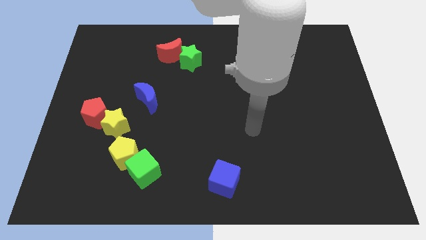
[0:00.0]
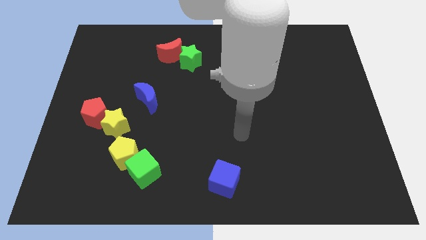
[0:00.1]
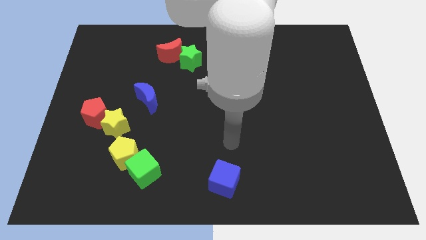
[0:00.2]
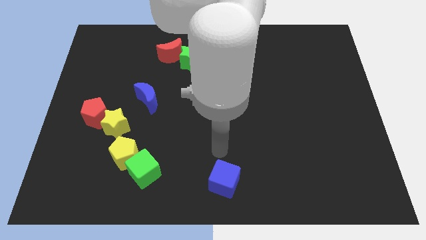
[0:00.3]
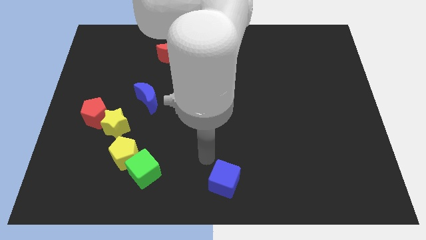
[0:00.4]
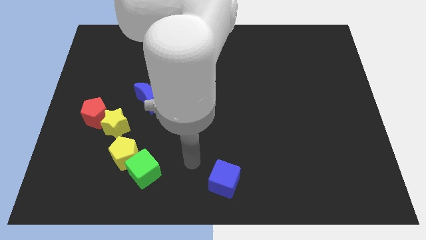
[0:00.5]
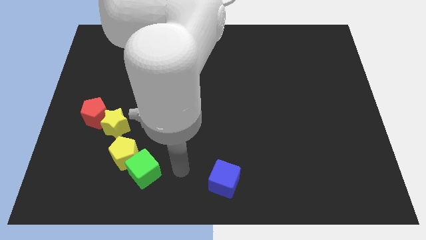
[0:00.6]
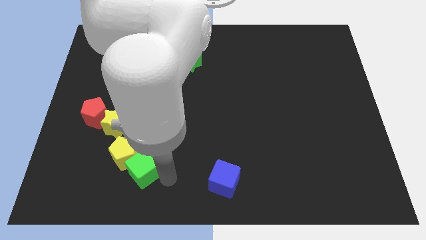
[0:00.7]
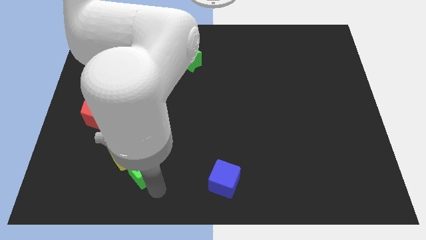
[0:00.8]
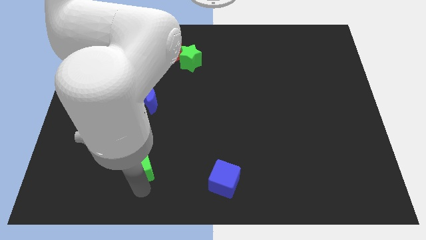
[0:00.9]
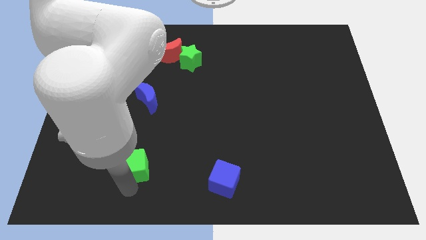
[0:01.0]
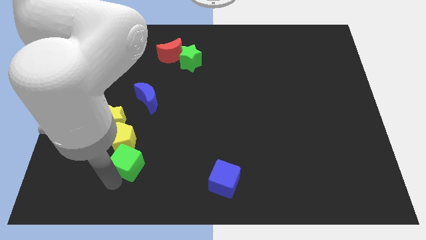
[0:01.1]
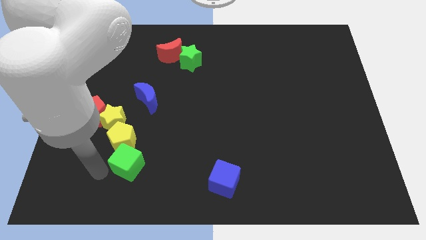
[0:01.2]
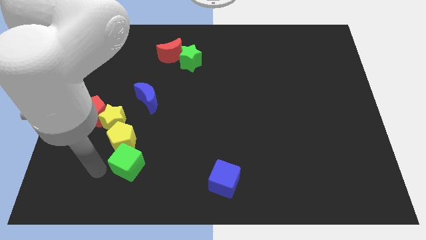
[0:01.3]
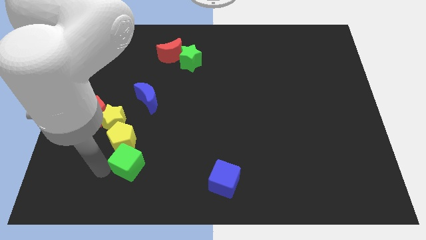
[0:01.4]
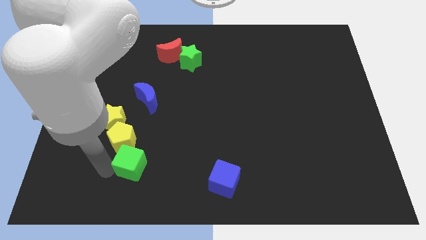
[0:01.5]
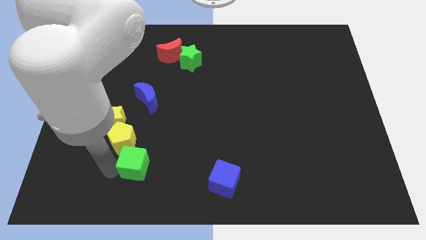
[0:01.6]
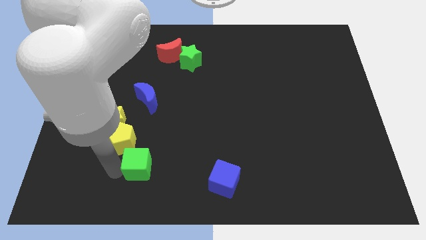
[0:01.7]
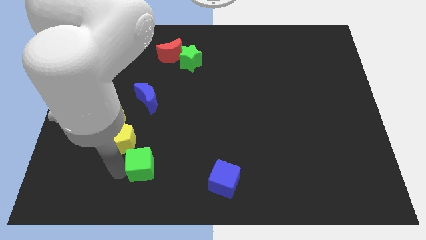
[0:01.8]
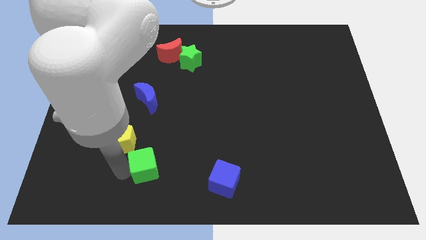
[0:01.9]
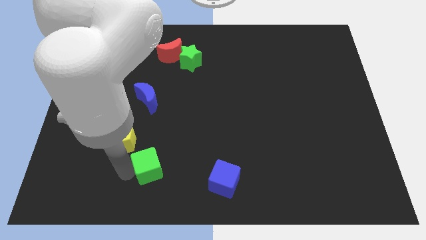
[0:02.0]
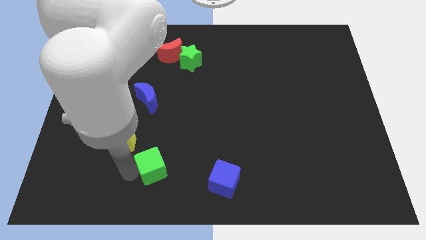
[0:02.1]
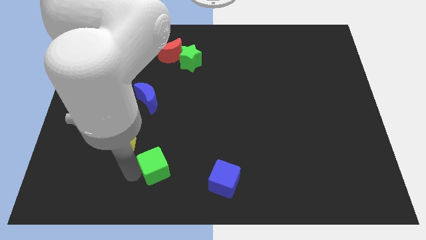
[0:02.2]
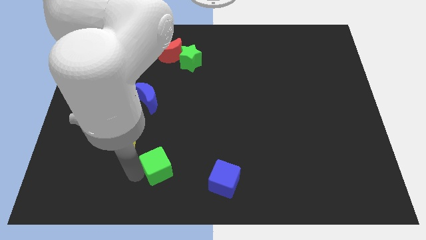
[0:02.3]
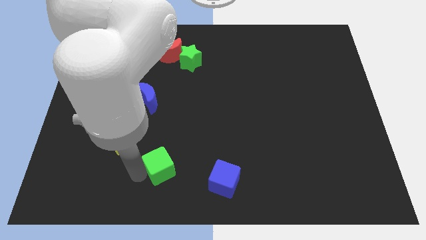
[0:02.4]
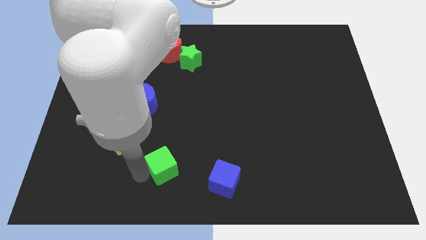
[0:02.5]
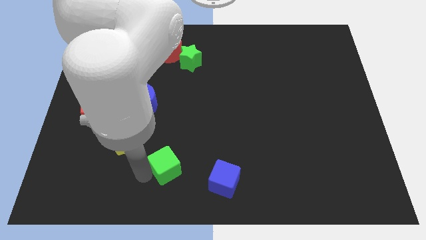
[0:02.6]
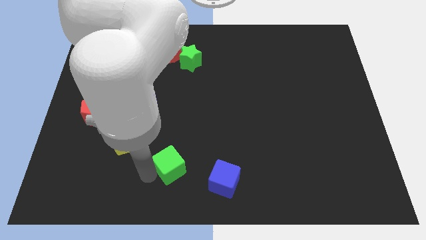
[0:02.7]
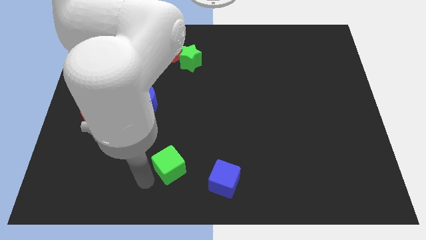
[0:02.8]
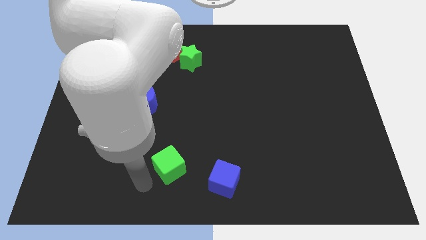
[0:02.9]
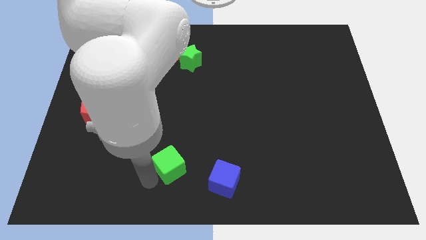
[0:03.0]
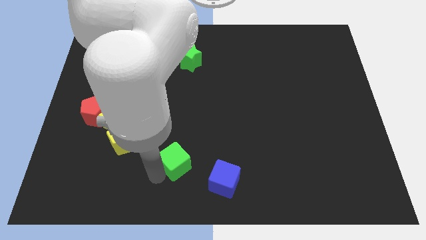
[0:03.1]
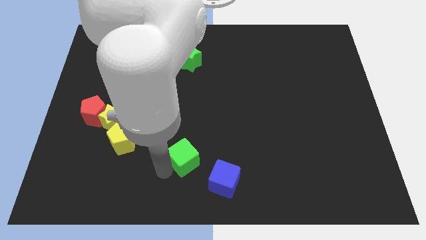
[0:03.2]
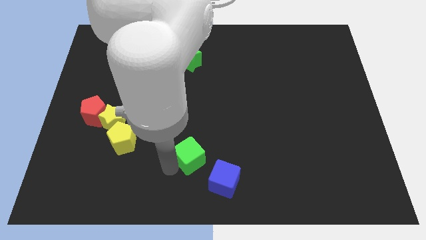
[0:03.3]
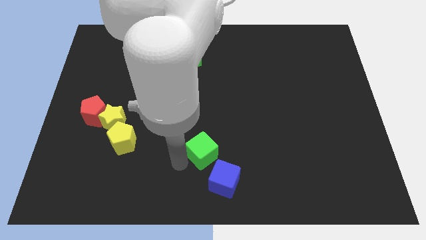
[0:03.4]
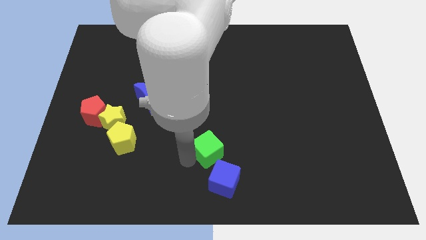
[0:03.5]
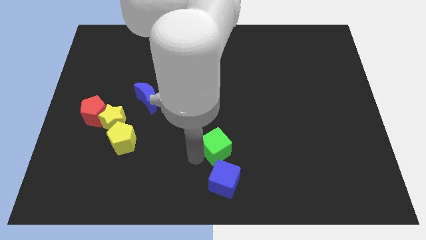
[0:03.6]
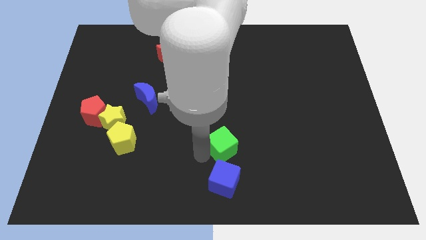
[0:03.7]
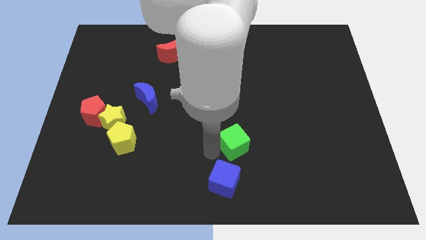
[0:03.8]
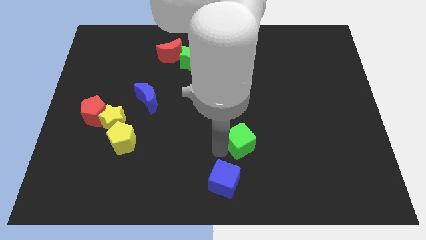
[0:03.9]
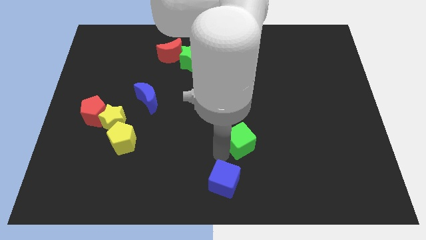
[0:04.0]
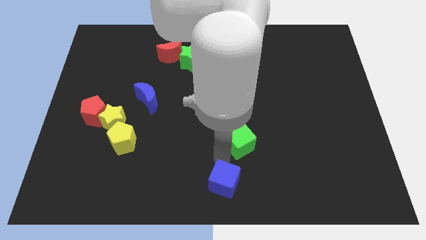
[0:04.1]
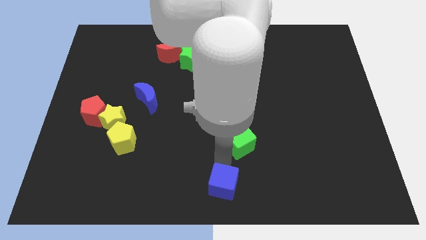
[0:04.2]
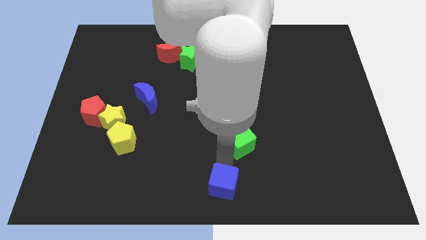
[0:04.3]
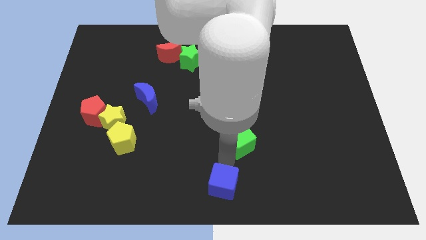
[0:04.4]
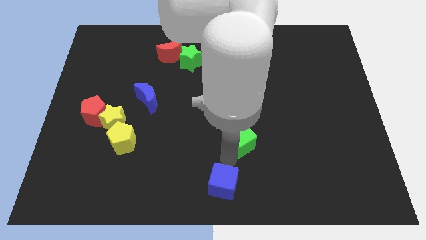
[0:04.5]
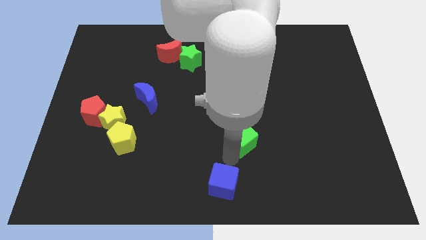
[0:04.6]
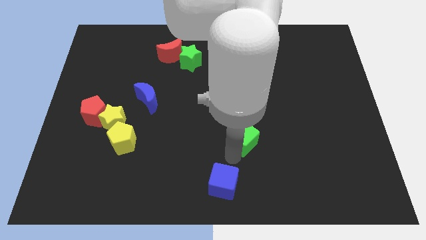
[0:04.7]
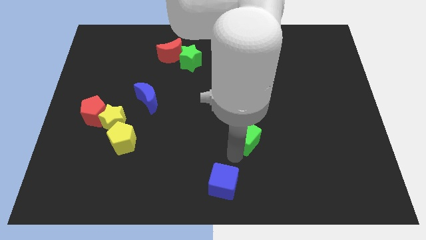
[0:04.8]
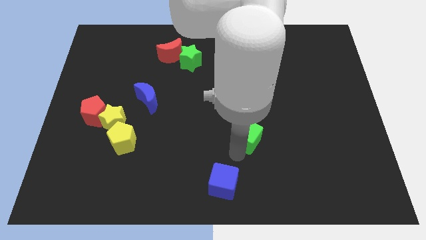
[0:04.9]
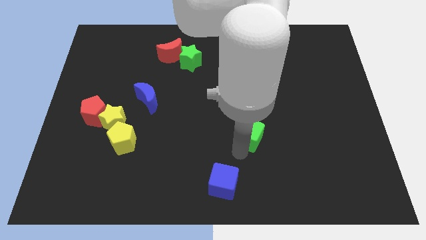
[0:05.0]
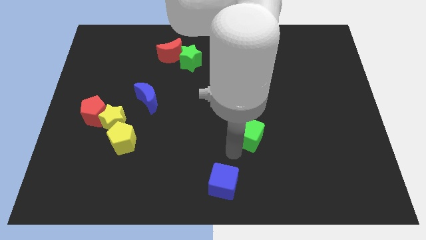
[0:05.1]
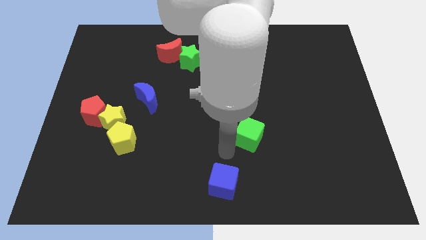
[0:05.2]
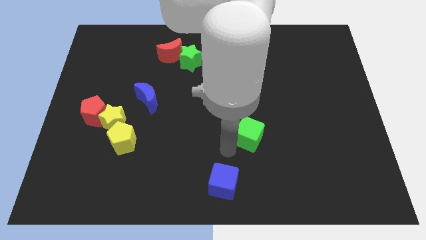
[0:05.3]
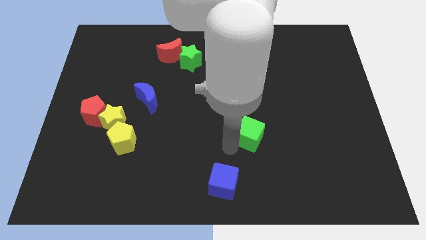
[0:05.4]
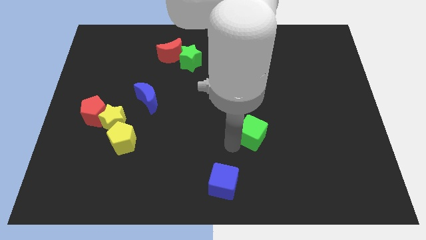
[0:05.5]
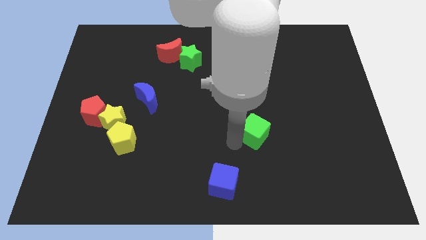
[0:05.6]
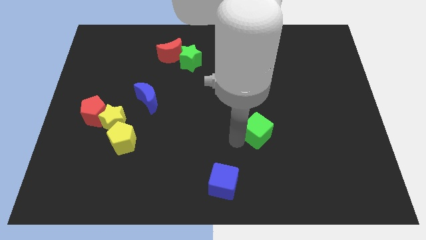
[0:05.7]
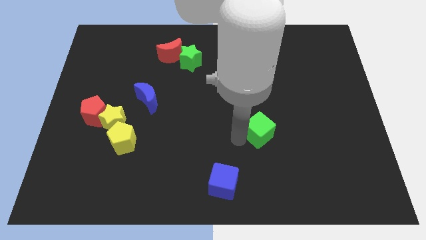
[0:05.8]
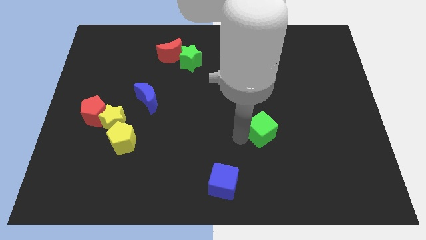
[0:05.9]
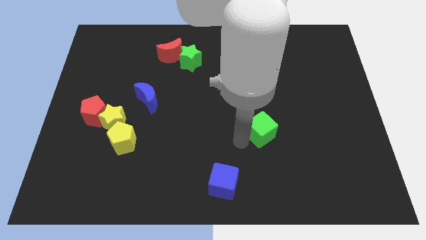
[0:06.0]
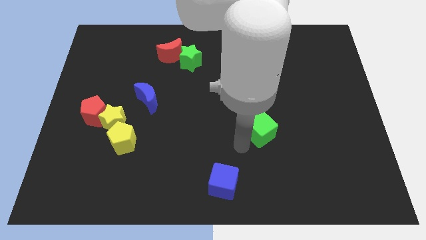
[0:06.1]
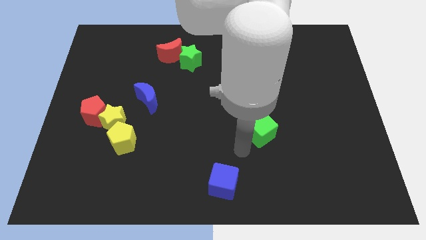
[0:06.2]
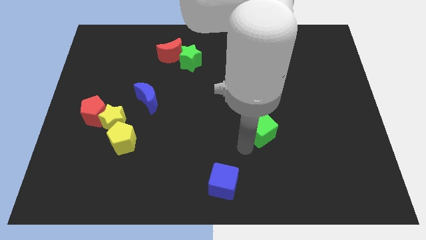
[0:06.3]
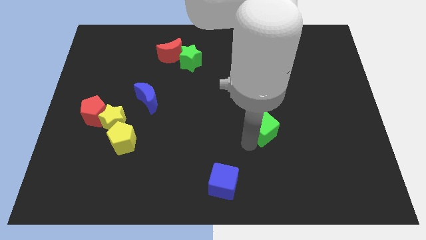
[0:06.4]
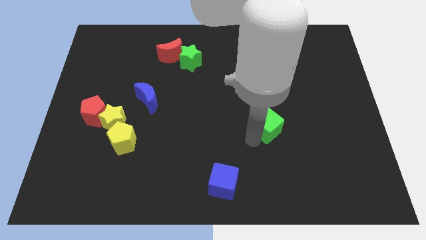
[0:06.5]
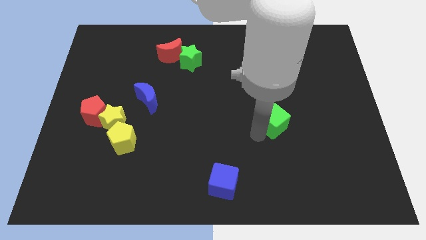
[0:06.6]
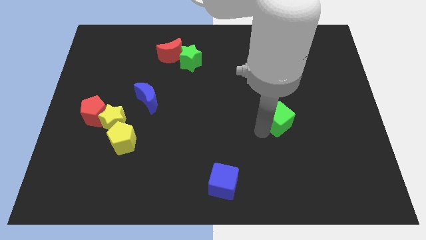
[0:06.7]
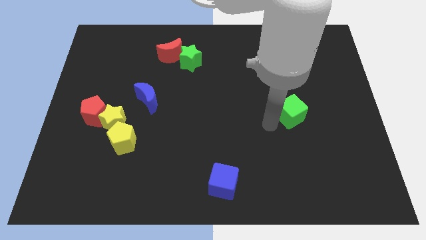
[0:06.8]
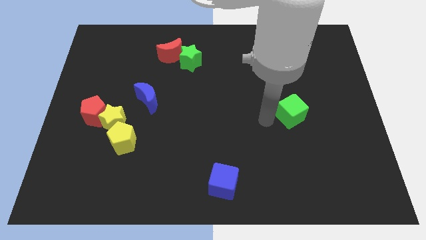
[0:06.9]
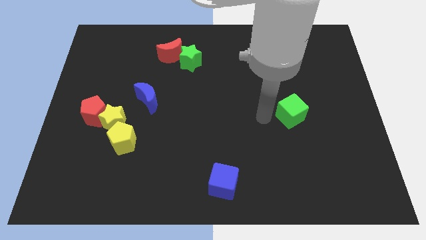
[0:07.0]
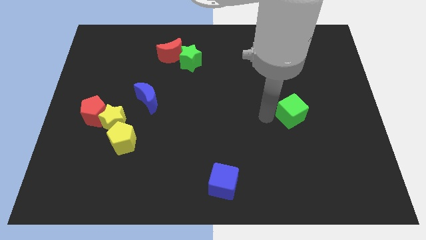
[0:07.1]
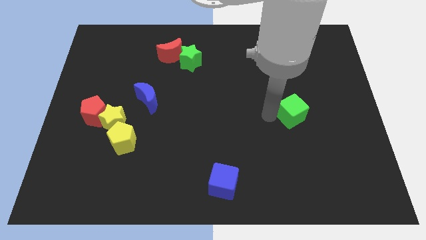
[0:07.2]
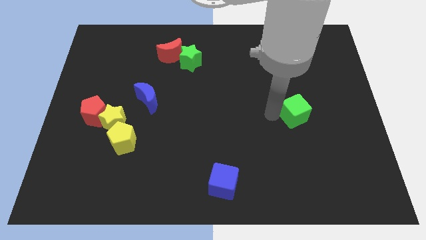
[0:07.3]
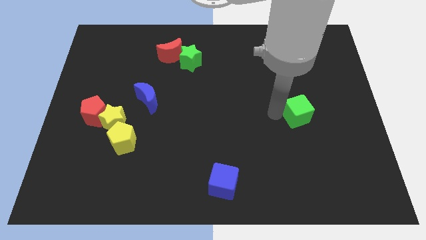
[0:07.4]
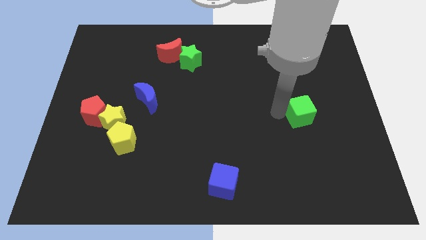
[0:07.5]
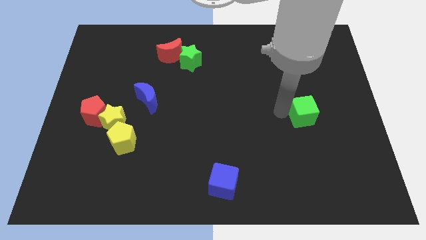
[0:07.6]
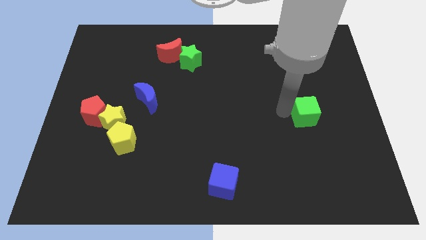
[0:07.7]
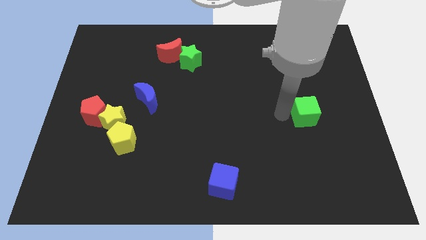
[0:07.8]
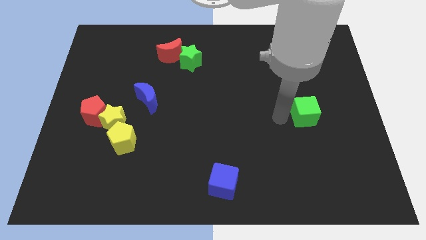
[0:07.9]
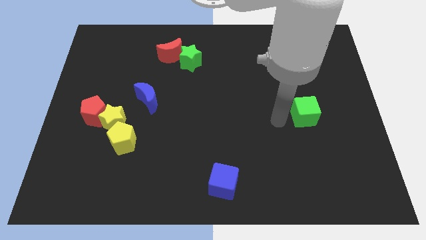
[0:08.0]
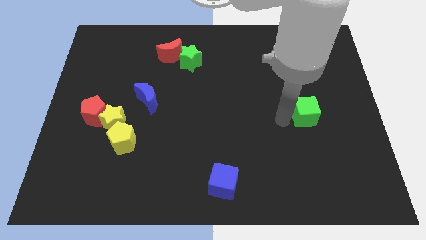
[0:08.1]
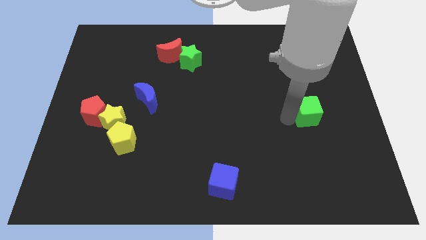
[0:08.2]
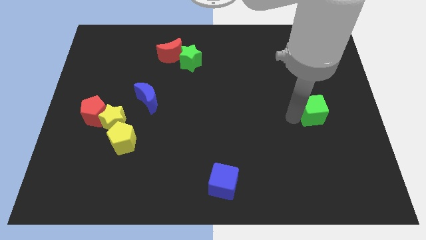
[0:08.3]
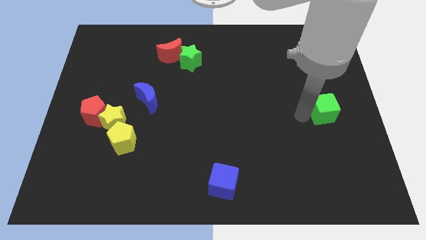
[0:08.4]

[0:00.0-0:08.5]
push the green cube to the right side
